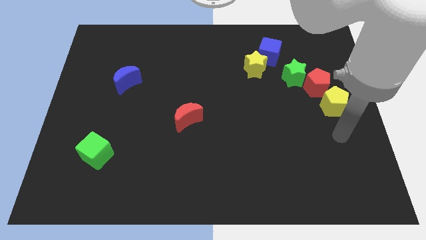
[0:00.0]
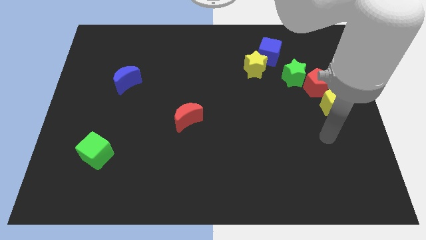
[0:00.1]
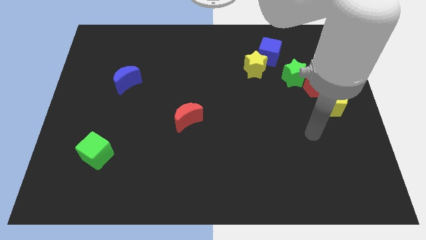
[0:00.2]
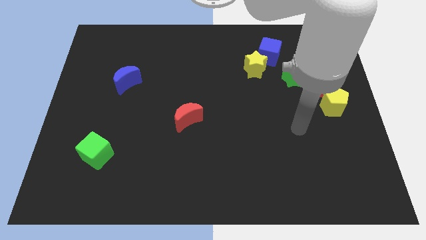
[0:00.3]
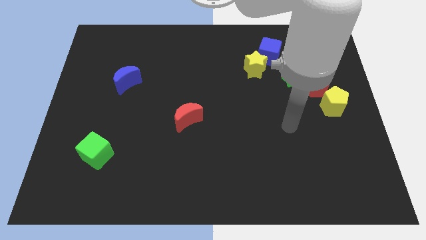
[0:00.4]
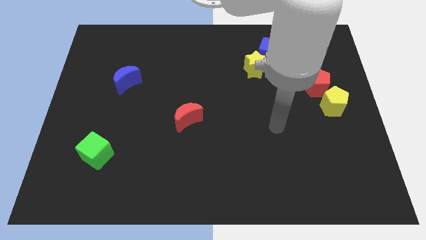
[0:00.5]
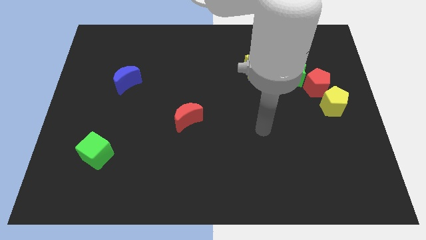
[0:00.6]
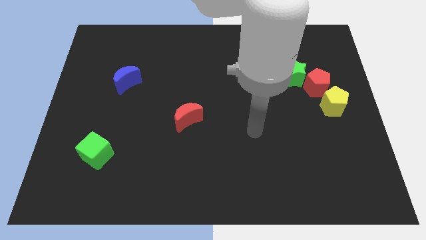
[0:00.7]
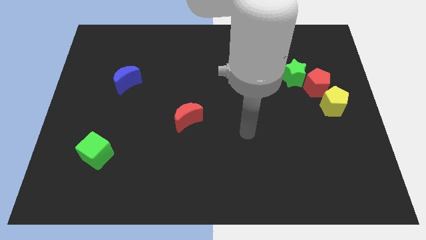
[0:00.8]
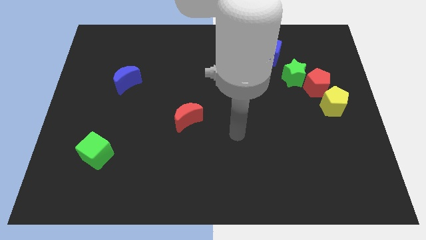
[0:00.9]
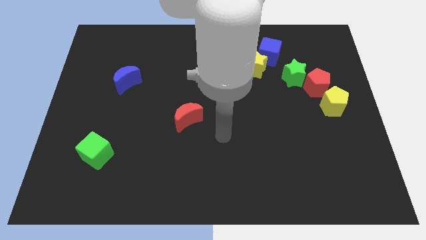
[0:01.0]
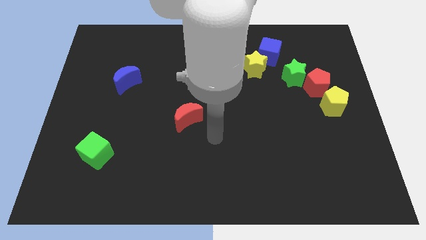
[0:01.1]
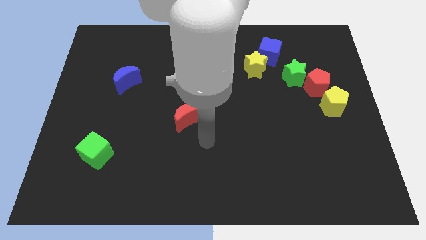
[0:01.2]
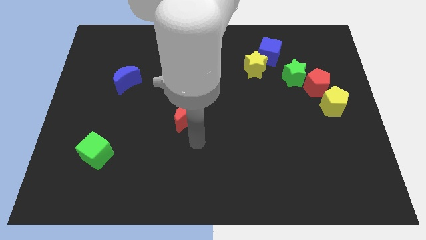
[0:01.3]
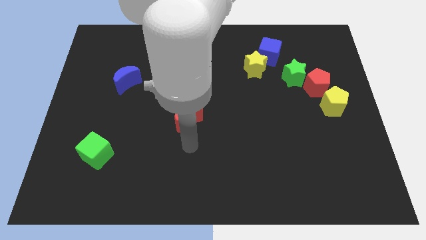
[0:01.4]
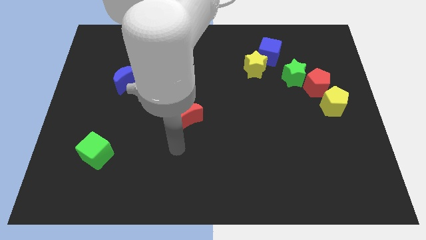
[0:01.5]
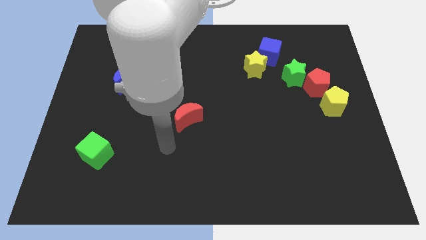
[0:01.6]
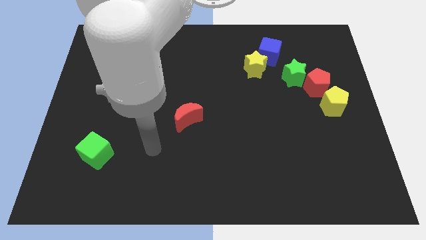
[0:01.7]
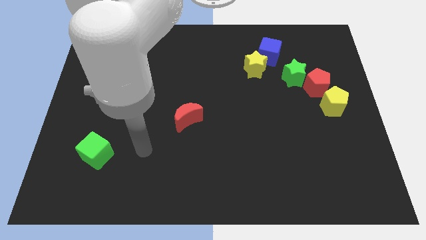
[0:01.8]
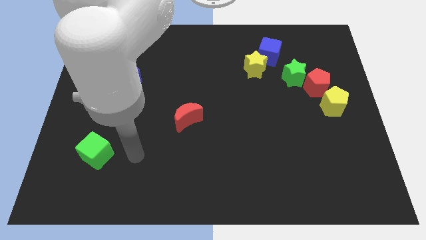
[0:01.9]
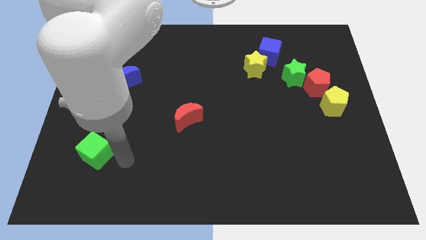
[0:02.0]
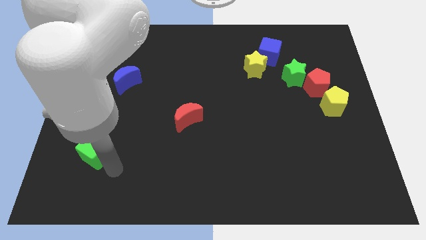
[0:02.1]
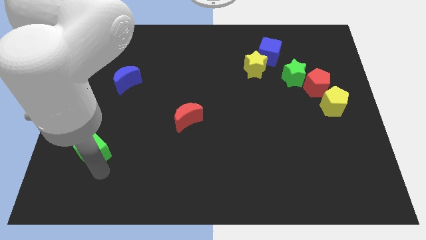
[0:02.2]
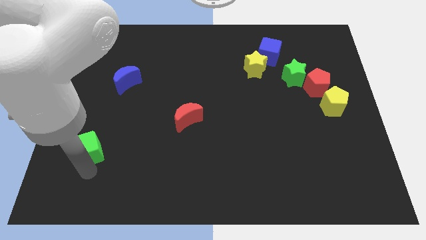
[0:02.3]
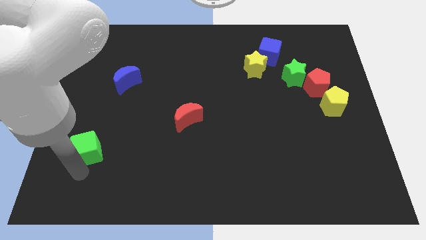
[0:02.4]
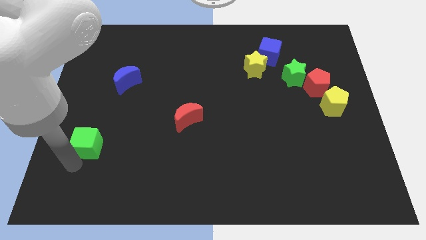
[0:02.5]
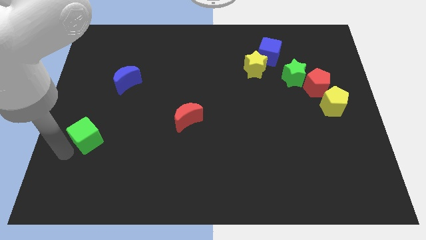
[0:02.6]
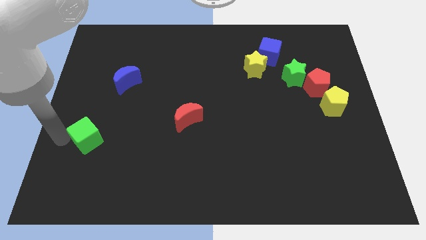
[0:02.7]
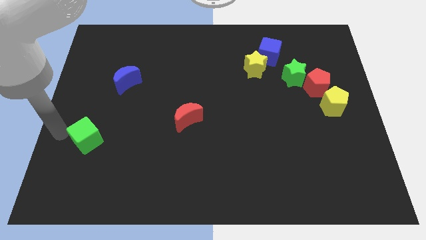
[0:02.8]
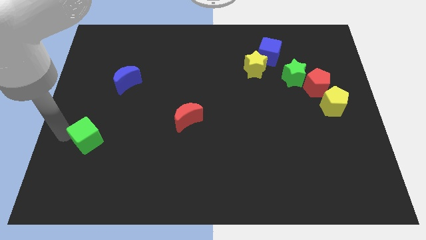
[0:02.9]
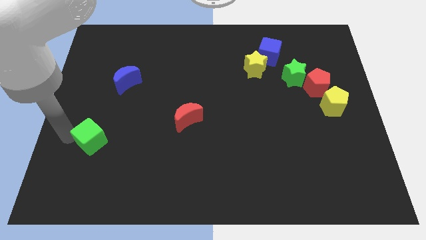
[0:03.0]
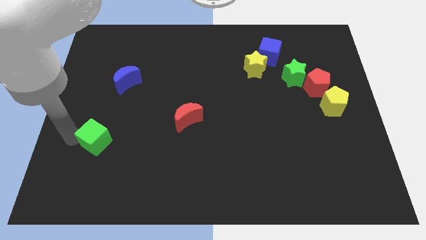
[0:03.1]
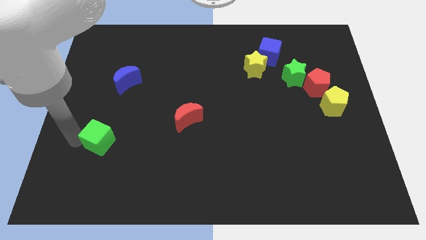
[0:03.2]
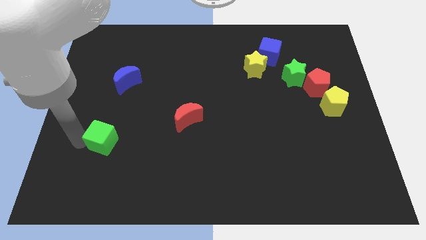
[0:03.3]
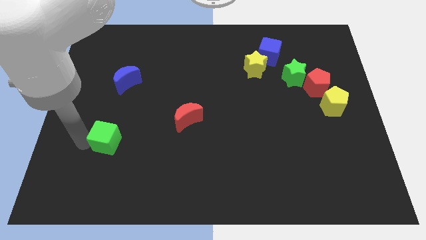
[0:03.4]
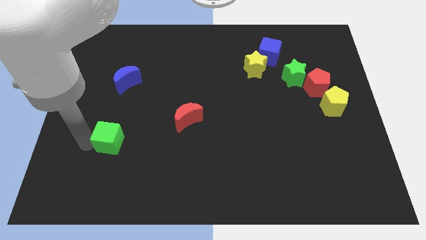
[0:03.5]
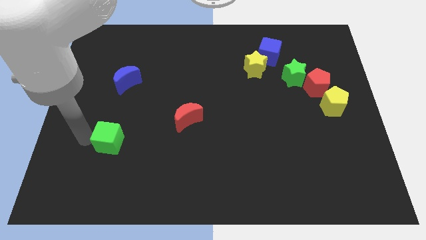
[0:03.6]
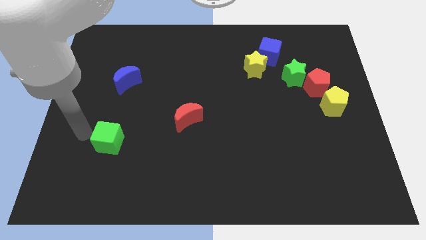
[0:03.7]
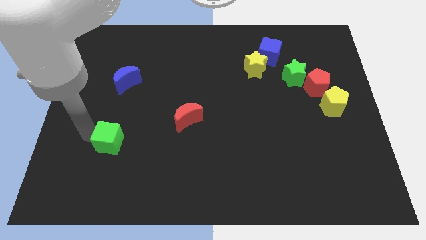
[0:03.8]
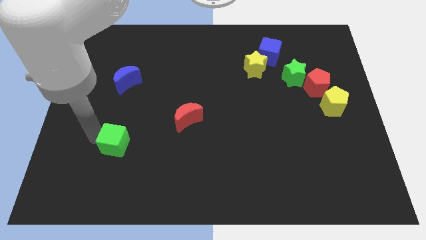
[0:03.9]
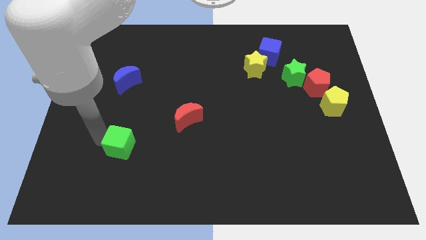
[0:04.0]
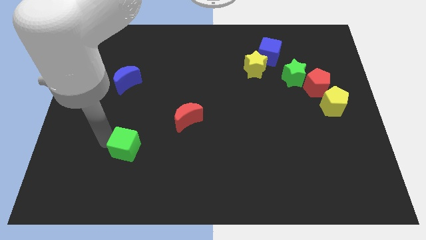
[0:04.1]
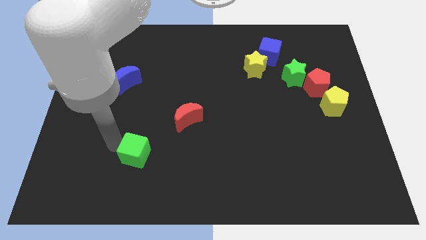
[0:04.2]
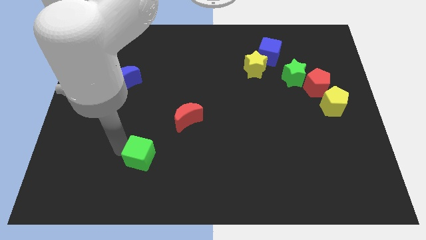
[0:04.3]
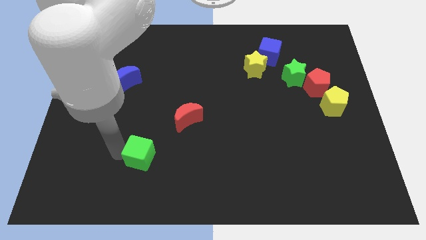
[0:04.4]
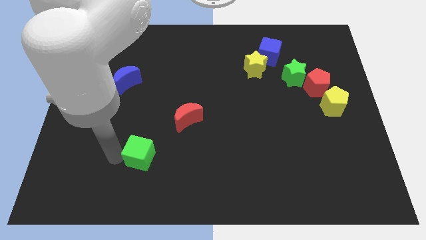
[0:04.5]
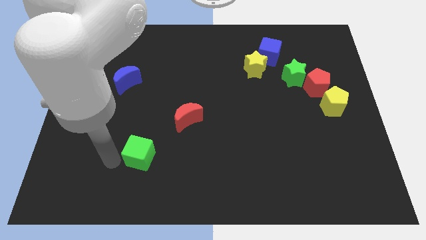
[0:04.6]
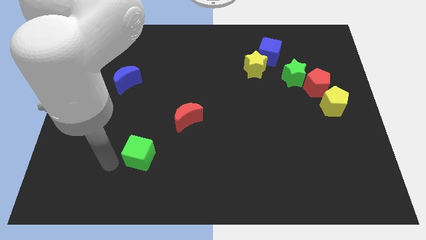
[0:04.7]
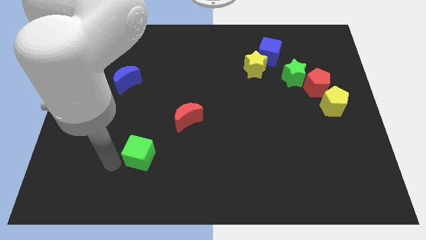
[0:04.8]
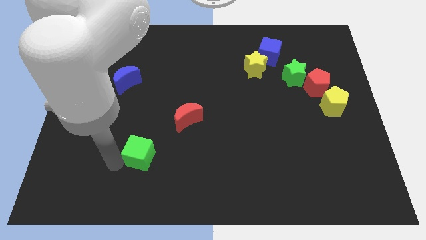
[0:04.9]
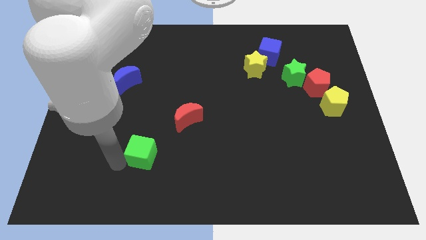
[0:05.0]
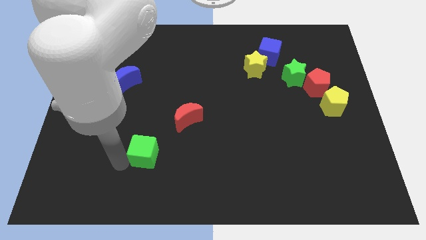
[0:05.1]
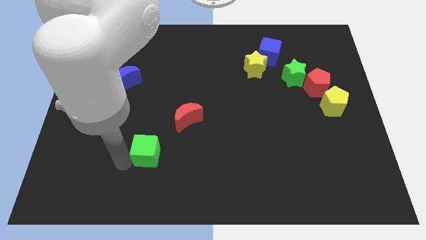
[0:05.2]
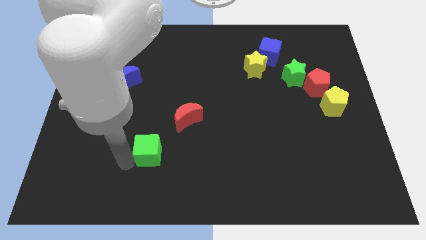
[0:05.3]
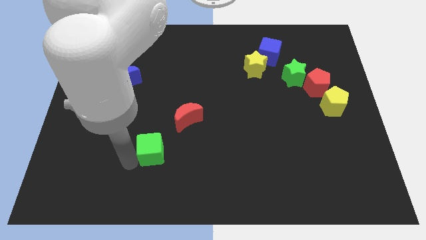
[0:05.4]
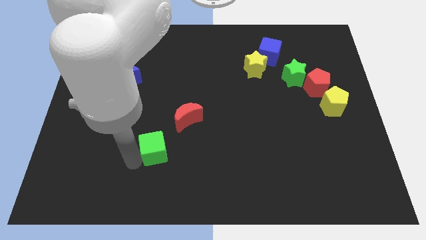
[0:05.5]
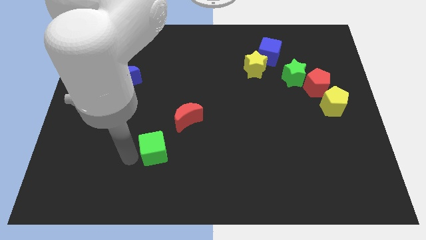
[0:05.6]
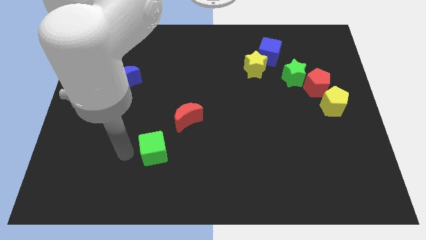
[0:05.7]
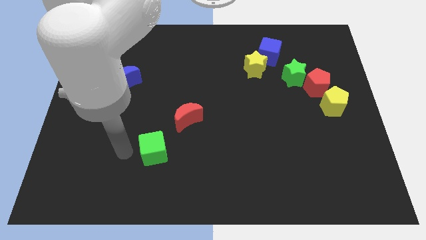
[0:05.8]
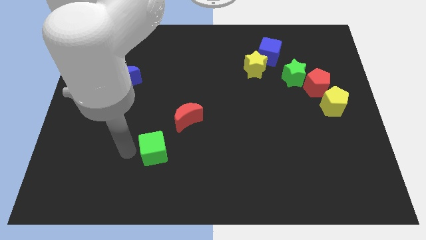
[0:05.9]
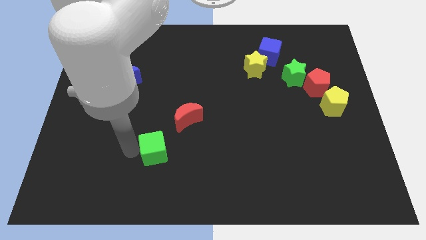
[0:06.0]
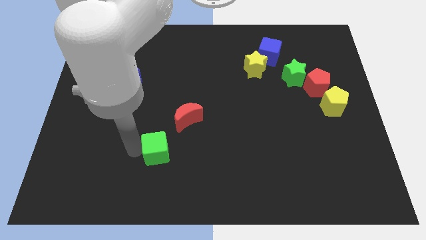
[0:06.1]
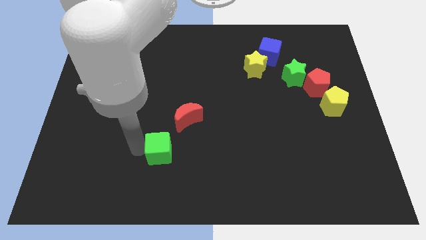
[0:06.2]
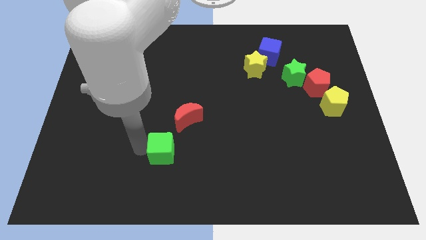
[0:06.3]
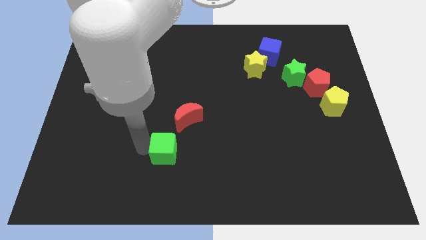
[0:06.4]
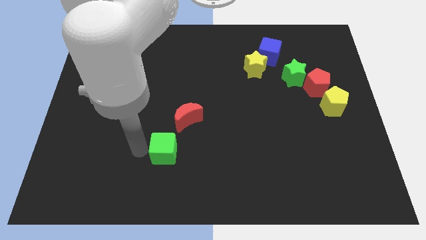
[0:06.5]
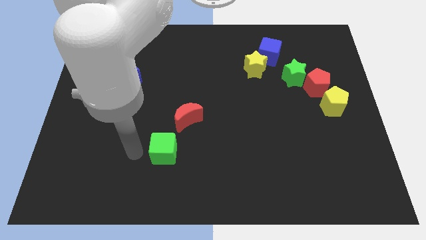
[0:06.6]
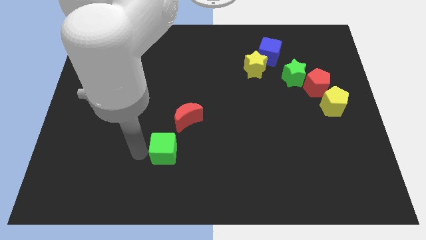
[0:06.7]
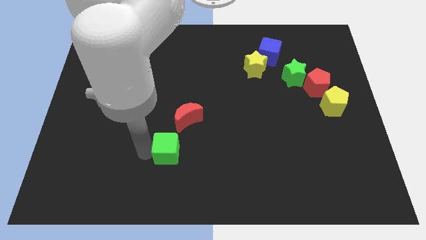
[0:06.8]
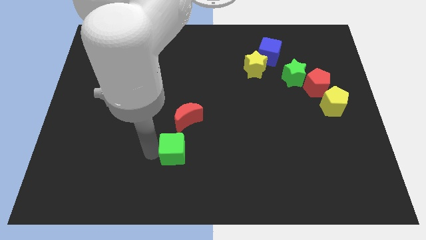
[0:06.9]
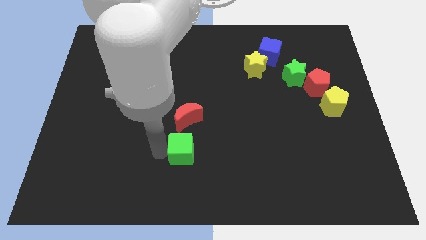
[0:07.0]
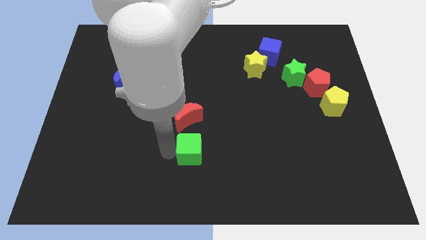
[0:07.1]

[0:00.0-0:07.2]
slide the green cube right

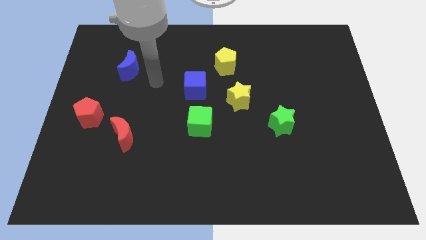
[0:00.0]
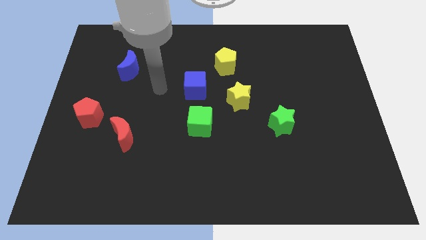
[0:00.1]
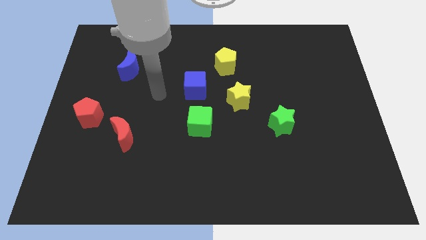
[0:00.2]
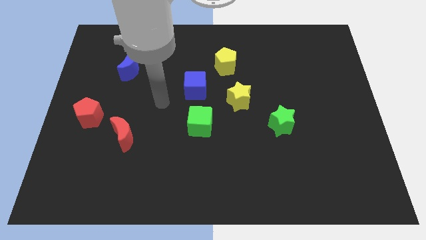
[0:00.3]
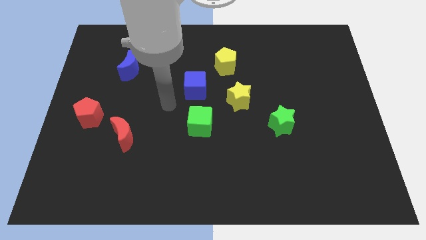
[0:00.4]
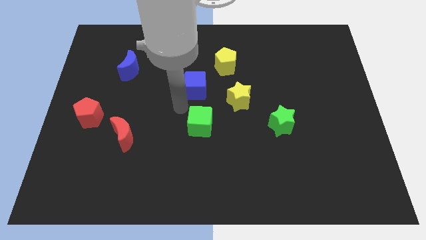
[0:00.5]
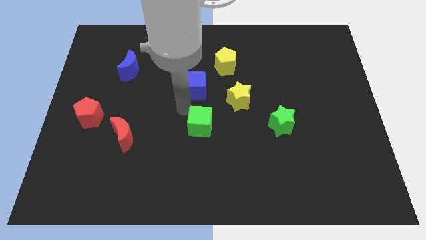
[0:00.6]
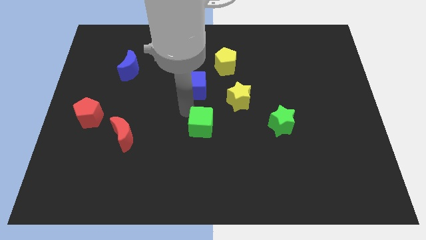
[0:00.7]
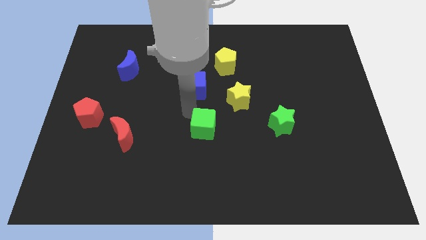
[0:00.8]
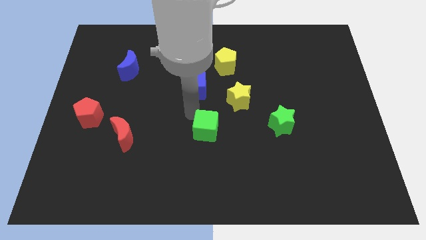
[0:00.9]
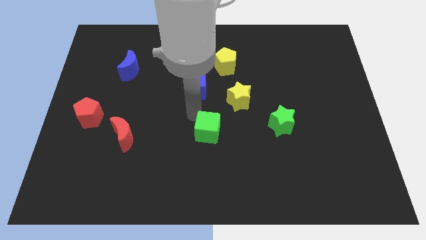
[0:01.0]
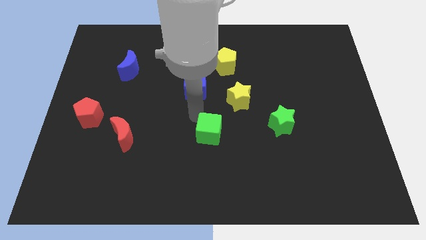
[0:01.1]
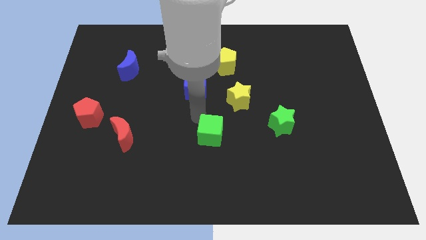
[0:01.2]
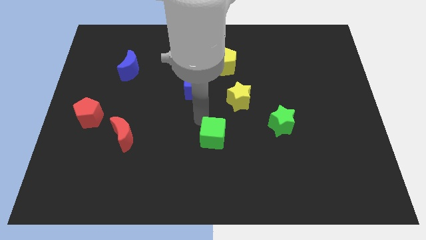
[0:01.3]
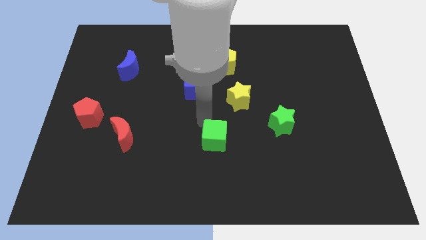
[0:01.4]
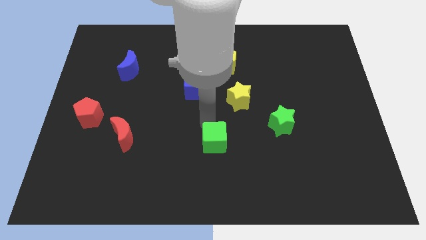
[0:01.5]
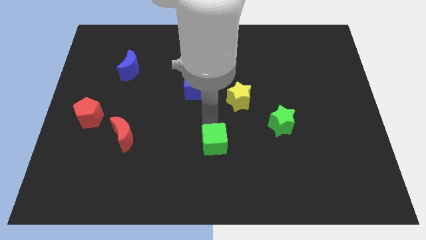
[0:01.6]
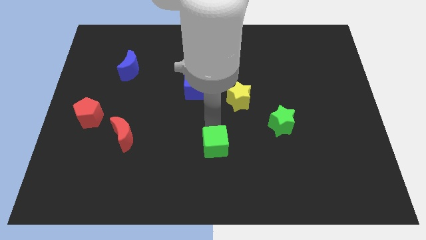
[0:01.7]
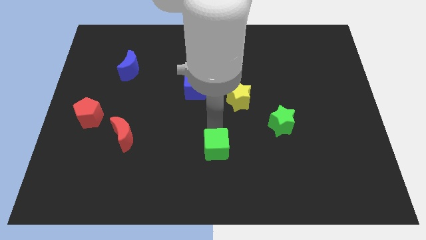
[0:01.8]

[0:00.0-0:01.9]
slightly move the green cube down and then right
